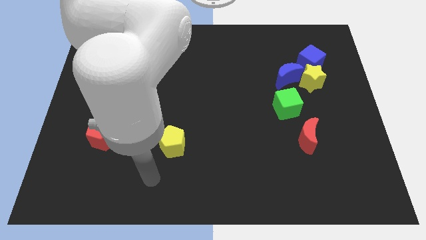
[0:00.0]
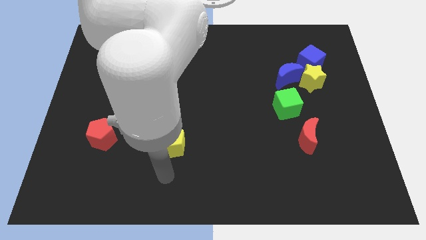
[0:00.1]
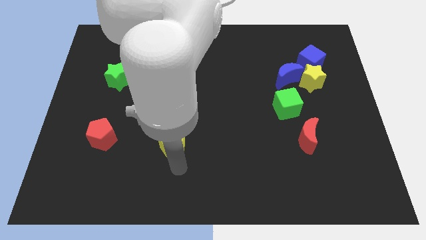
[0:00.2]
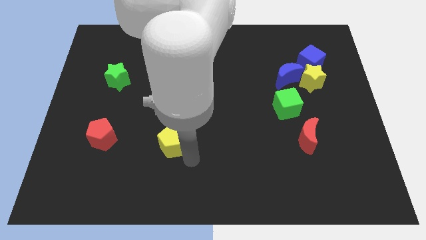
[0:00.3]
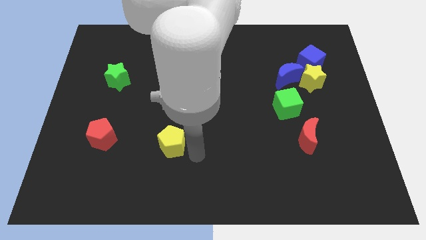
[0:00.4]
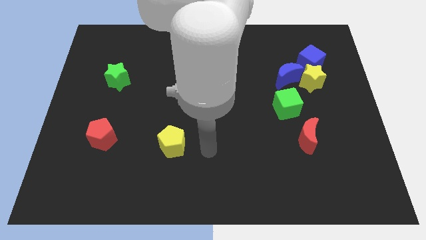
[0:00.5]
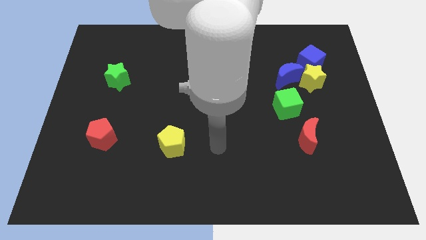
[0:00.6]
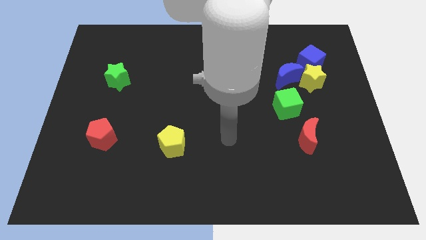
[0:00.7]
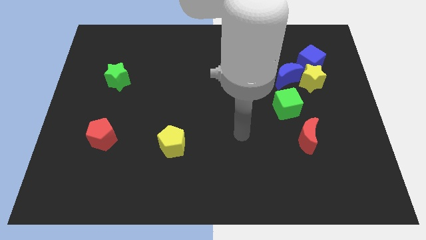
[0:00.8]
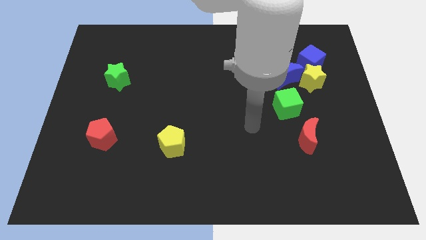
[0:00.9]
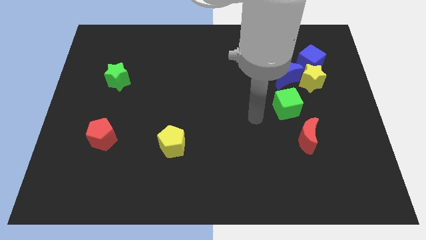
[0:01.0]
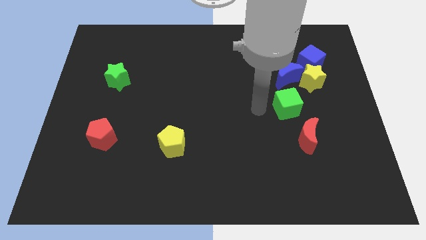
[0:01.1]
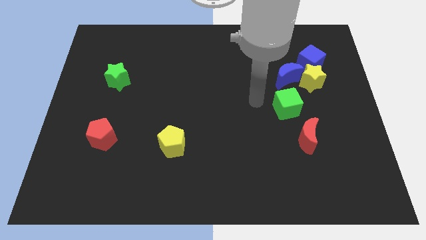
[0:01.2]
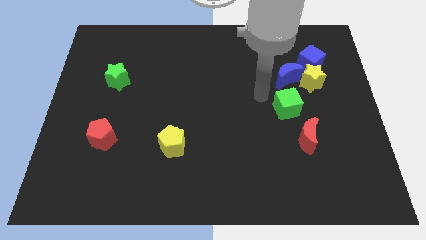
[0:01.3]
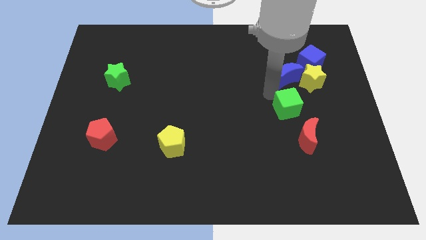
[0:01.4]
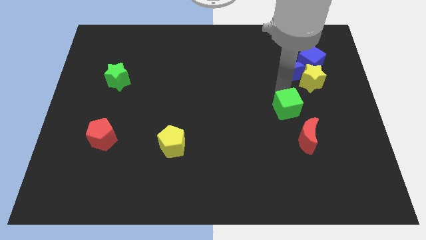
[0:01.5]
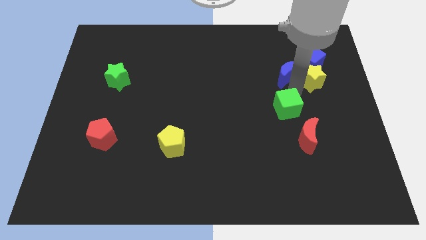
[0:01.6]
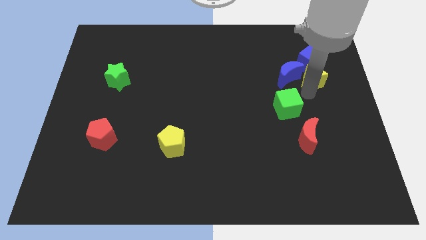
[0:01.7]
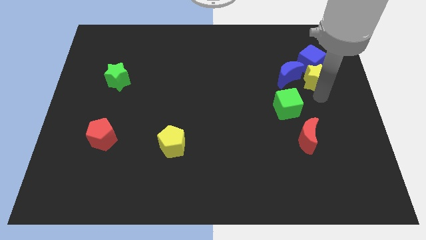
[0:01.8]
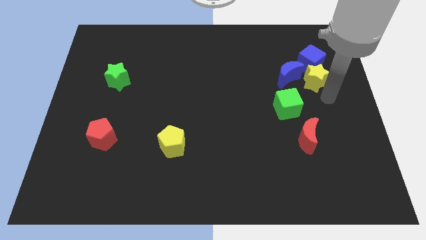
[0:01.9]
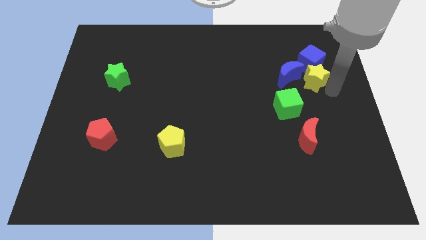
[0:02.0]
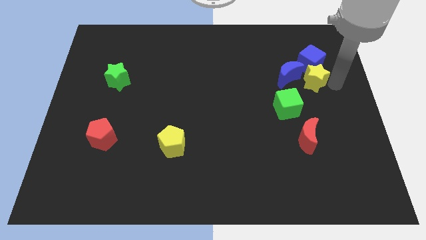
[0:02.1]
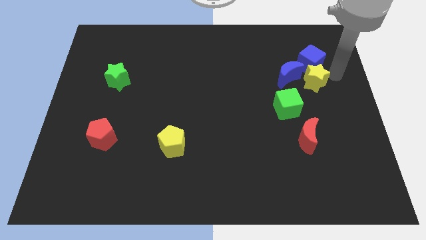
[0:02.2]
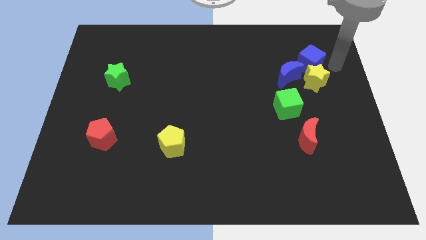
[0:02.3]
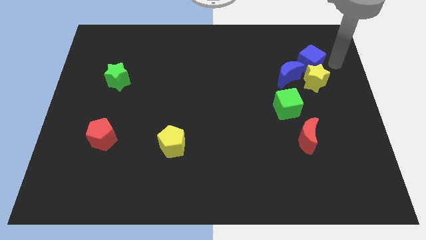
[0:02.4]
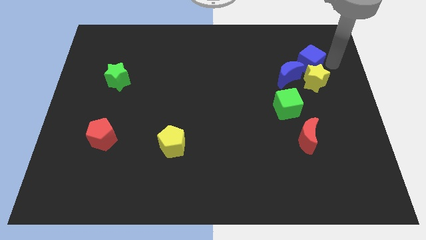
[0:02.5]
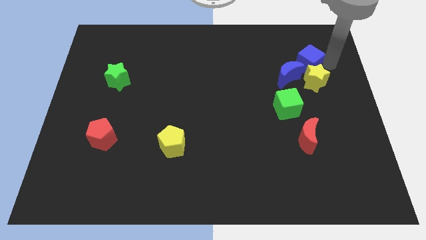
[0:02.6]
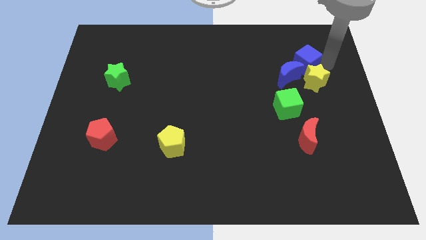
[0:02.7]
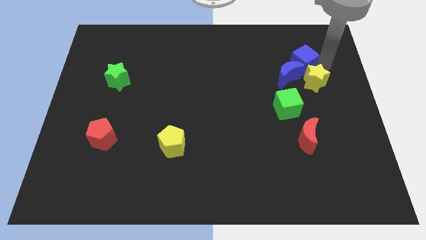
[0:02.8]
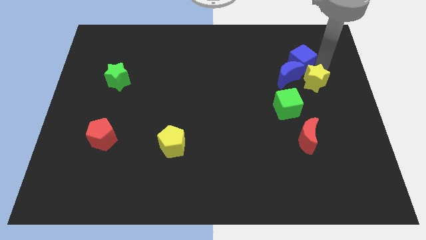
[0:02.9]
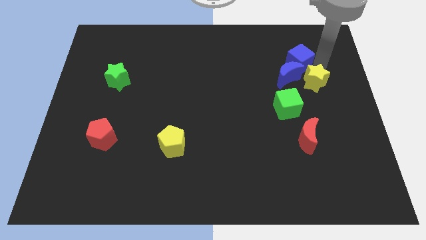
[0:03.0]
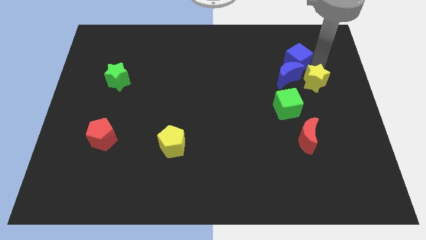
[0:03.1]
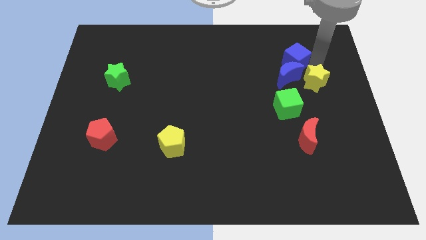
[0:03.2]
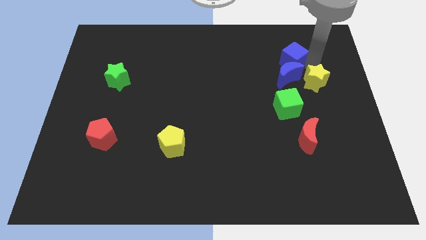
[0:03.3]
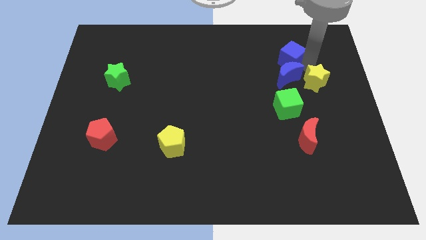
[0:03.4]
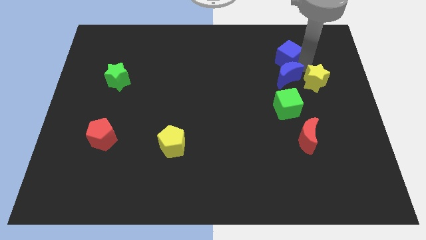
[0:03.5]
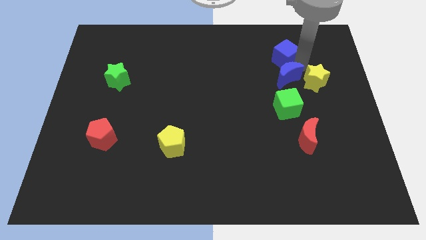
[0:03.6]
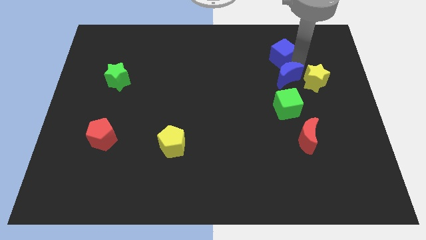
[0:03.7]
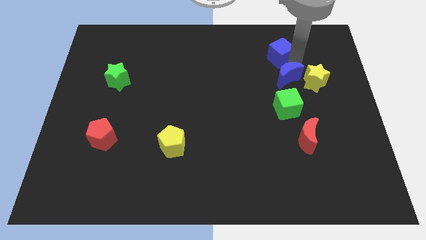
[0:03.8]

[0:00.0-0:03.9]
slightly push the blue cube left

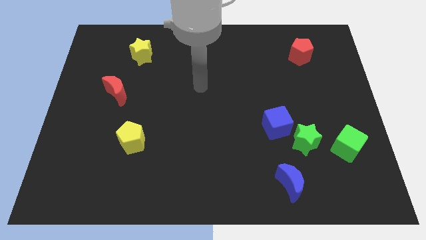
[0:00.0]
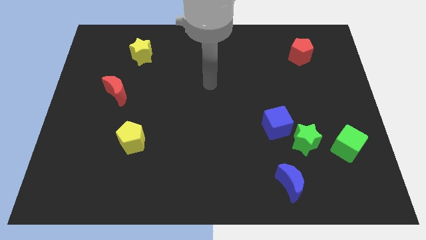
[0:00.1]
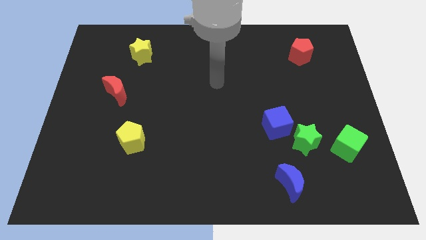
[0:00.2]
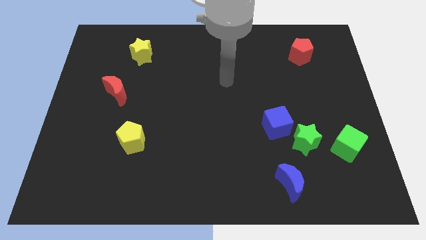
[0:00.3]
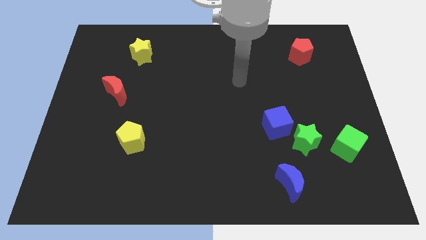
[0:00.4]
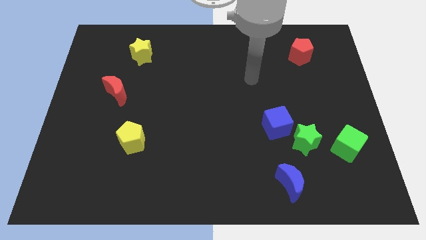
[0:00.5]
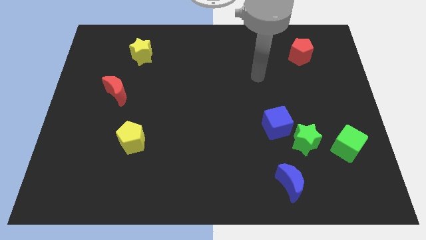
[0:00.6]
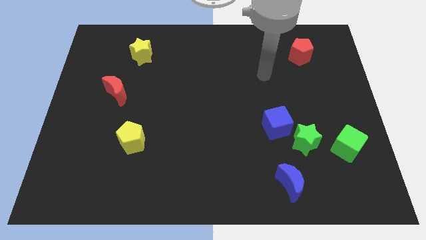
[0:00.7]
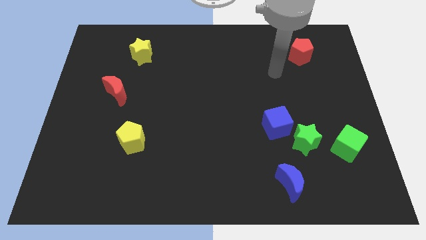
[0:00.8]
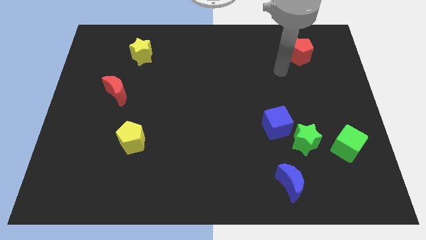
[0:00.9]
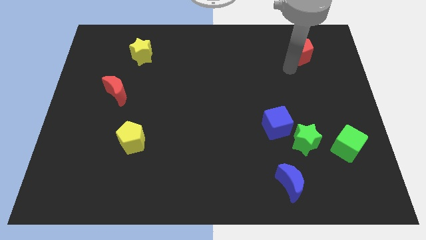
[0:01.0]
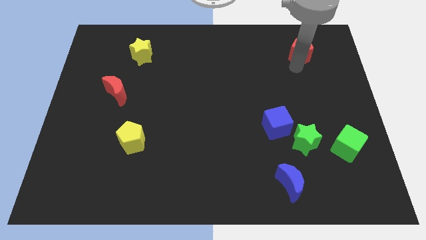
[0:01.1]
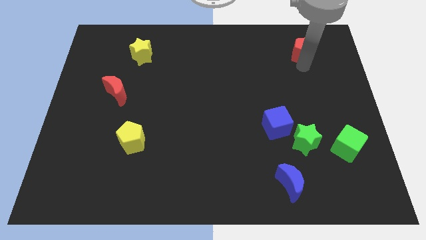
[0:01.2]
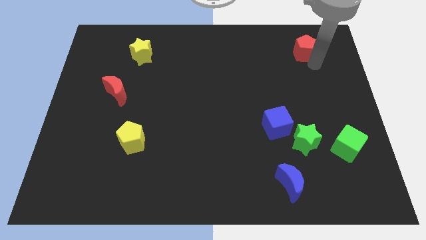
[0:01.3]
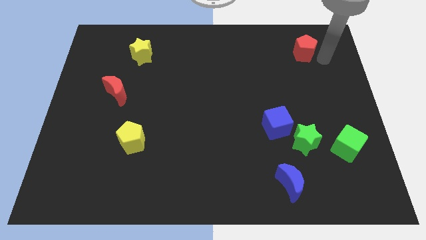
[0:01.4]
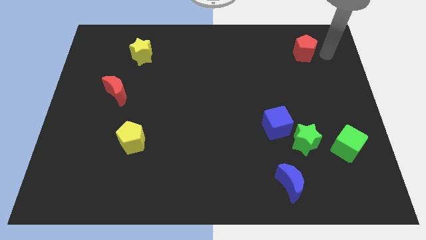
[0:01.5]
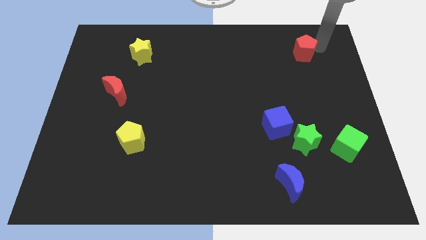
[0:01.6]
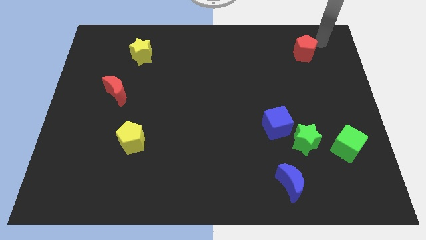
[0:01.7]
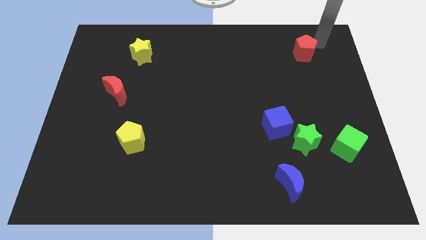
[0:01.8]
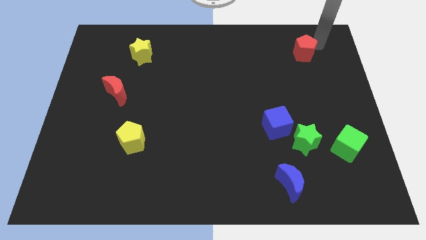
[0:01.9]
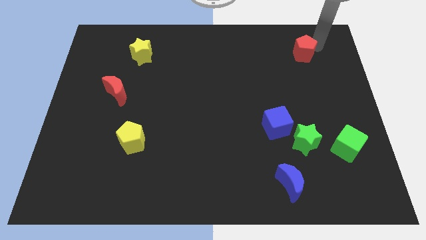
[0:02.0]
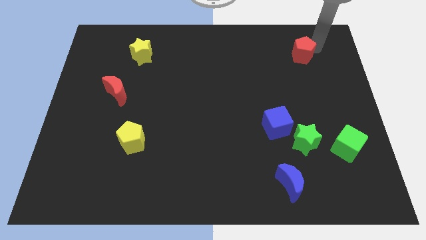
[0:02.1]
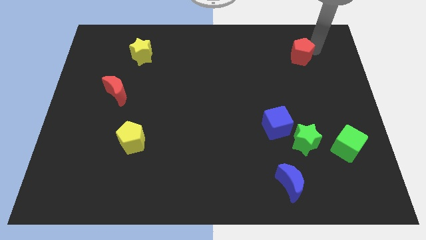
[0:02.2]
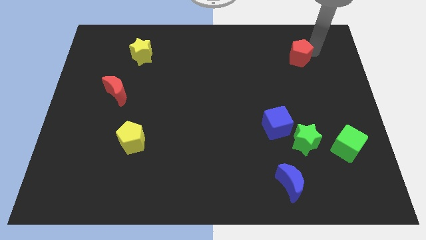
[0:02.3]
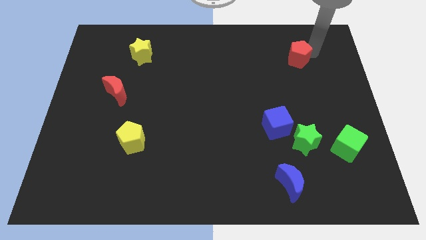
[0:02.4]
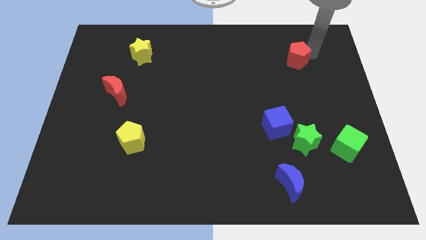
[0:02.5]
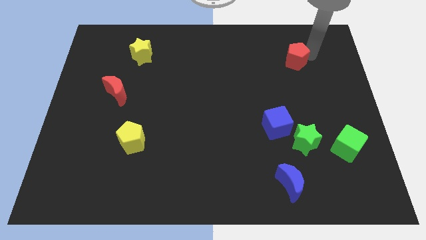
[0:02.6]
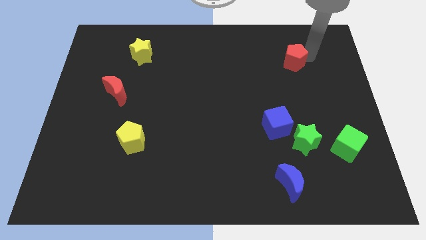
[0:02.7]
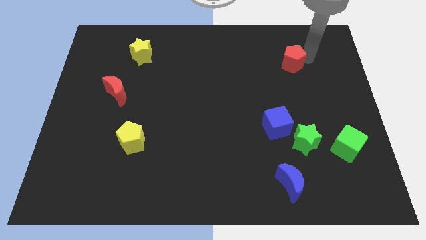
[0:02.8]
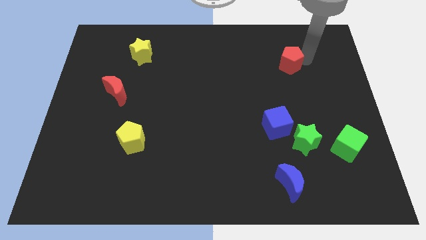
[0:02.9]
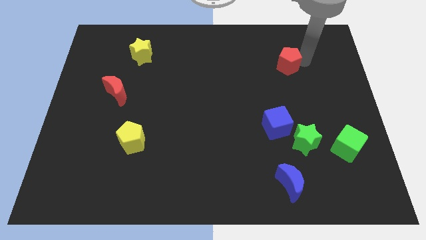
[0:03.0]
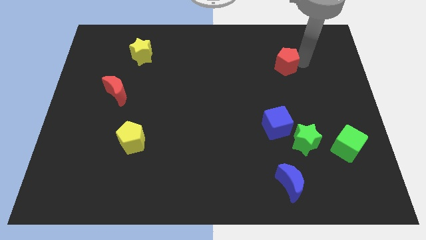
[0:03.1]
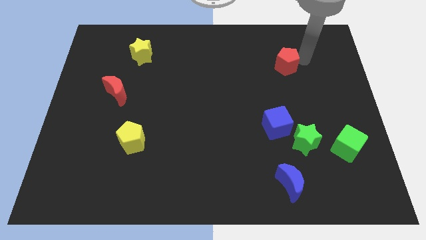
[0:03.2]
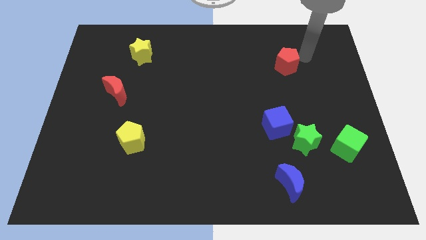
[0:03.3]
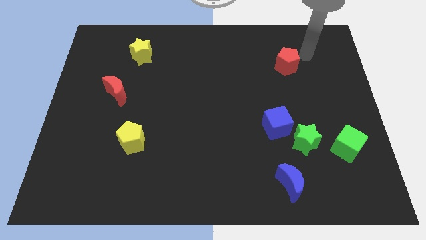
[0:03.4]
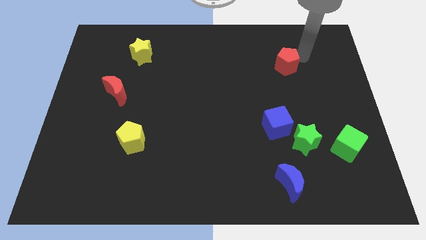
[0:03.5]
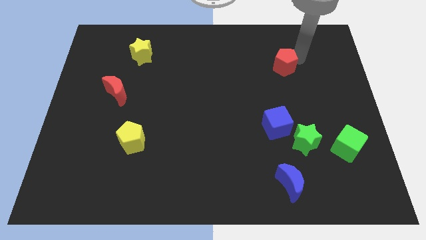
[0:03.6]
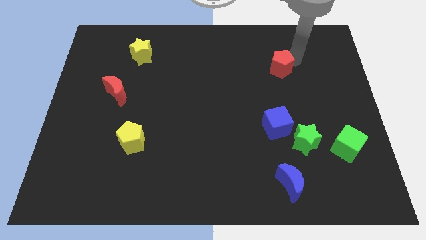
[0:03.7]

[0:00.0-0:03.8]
slightly slide the red pentagon diagonally down and left

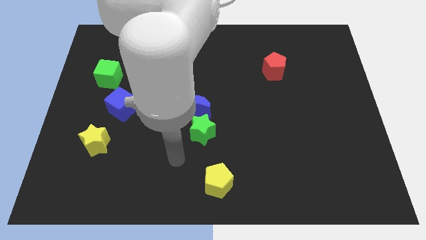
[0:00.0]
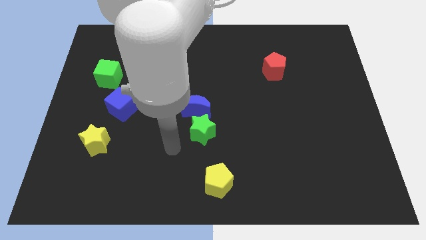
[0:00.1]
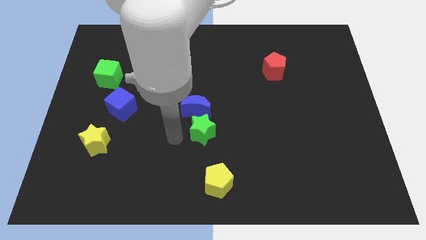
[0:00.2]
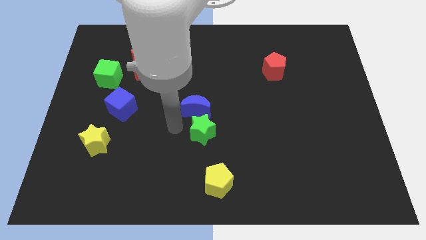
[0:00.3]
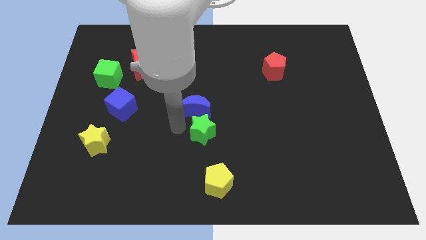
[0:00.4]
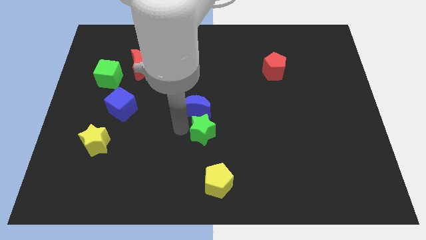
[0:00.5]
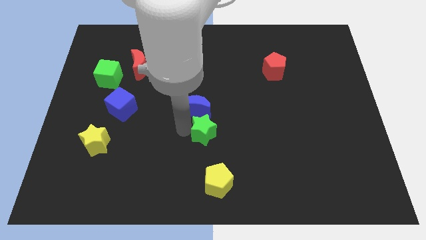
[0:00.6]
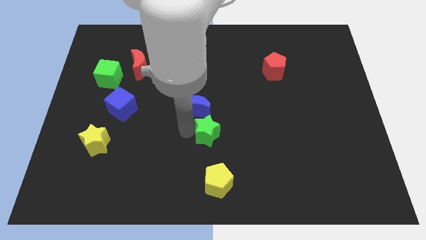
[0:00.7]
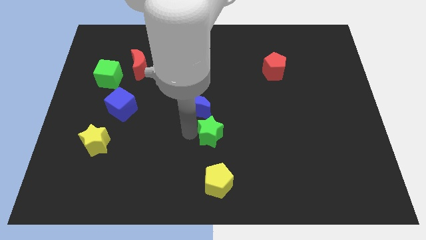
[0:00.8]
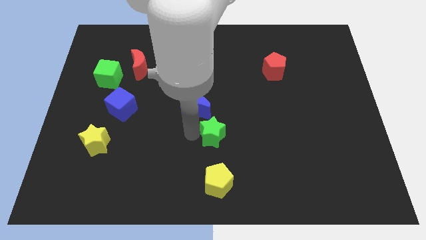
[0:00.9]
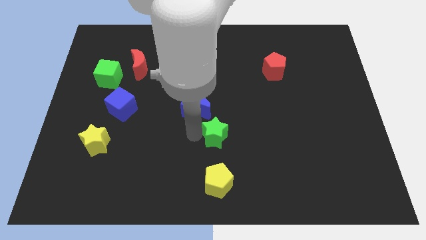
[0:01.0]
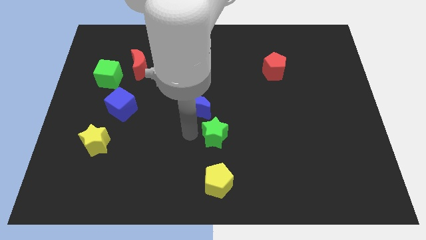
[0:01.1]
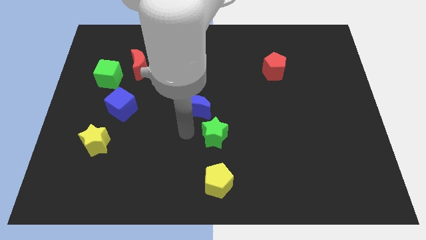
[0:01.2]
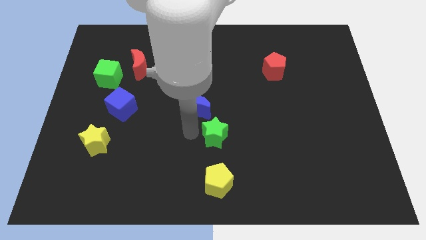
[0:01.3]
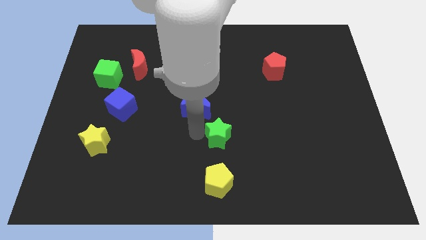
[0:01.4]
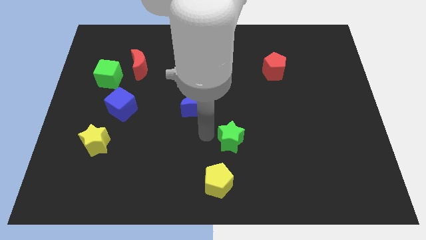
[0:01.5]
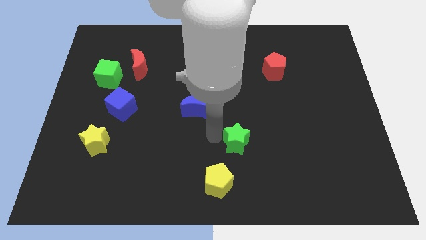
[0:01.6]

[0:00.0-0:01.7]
move the green star to the right somewhat
